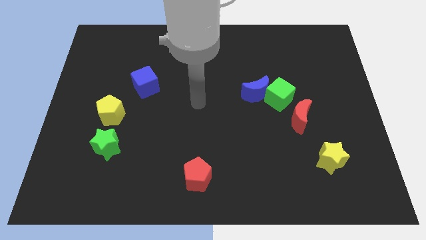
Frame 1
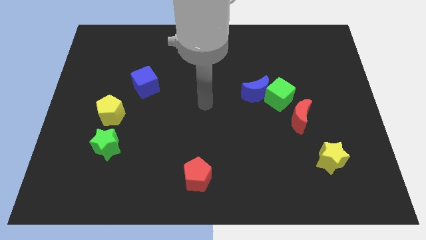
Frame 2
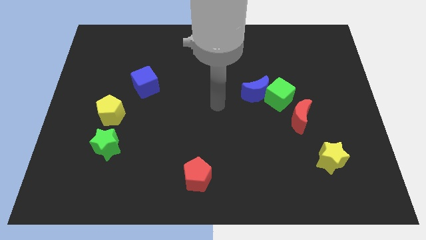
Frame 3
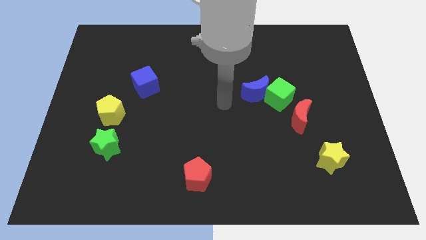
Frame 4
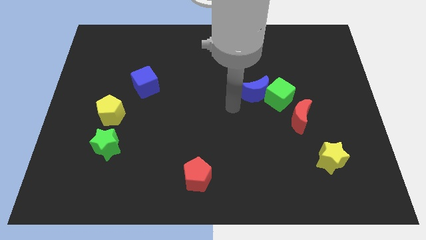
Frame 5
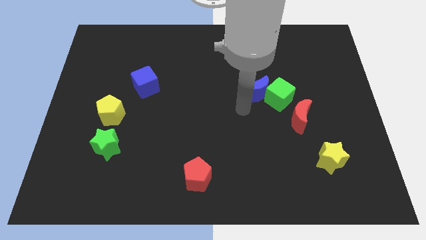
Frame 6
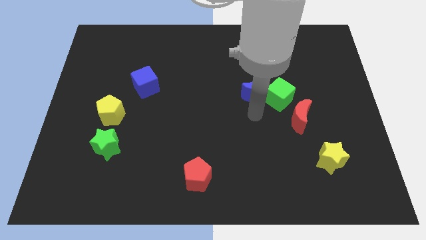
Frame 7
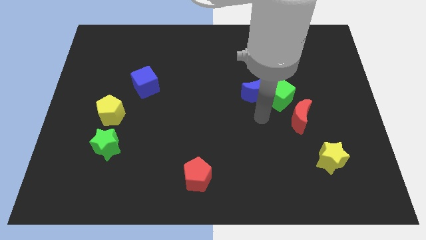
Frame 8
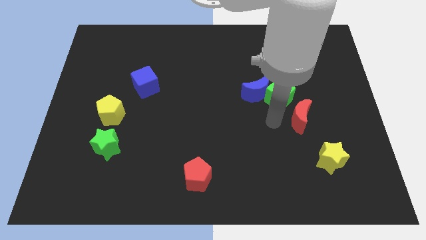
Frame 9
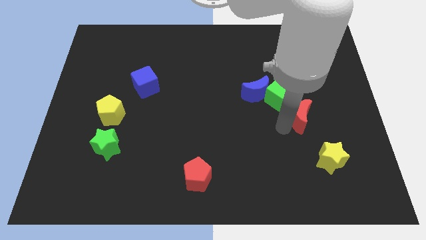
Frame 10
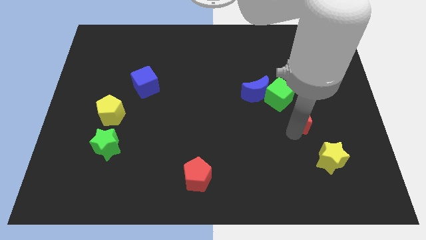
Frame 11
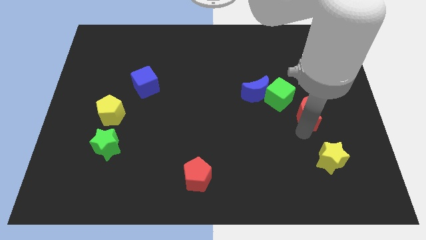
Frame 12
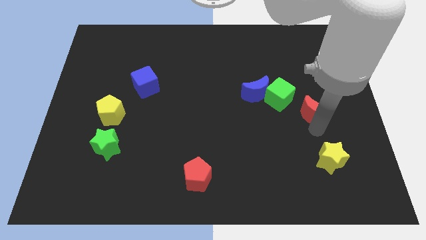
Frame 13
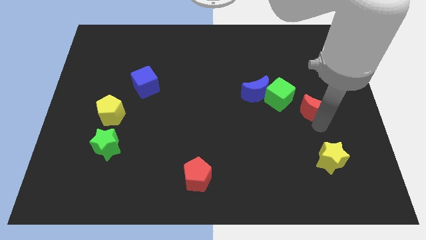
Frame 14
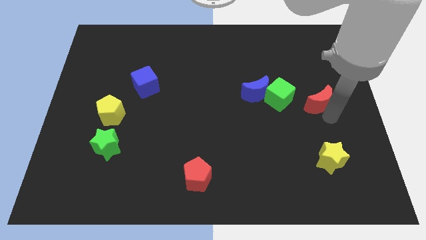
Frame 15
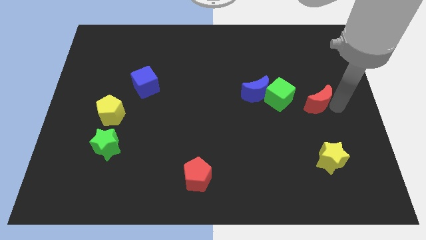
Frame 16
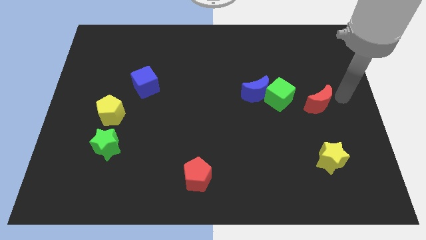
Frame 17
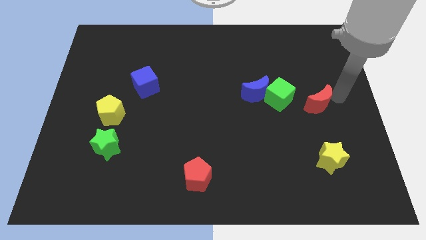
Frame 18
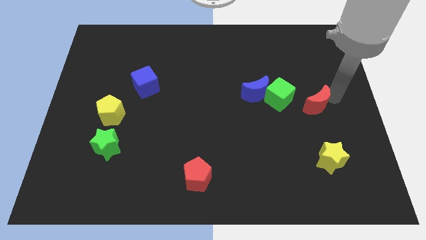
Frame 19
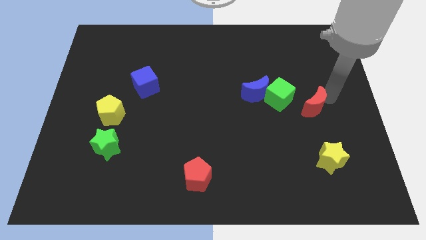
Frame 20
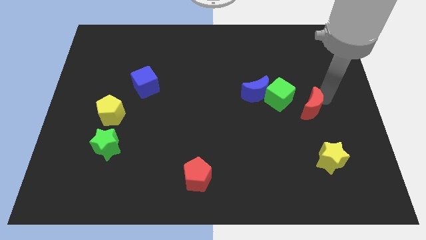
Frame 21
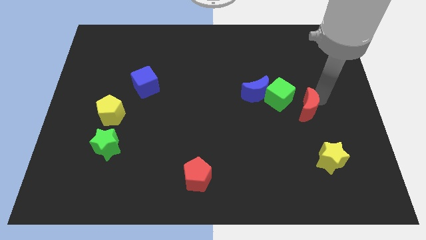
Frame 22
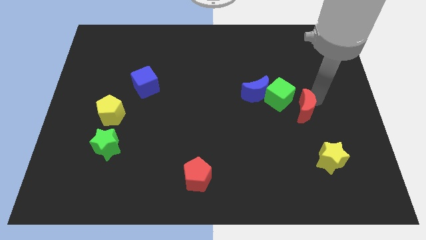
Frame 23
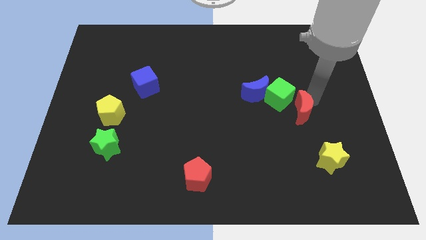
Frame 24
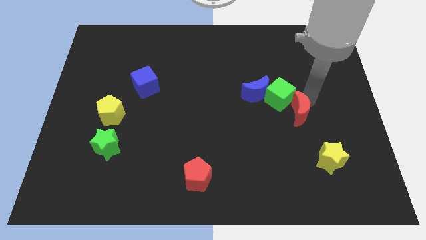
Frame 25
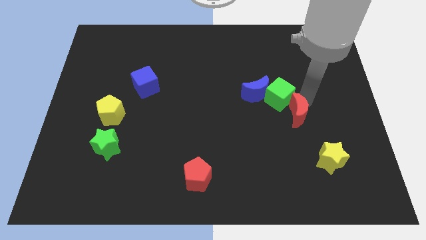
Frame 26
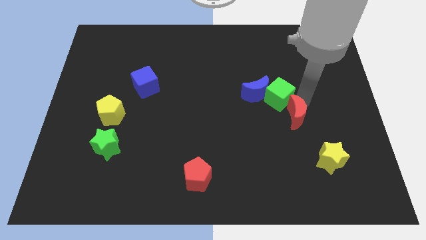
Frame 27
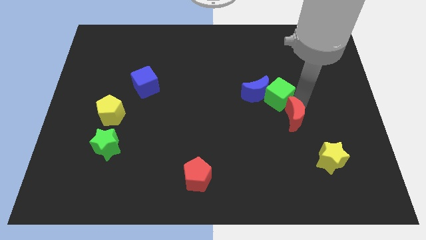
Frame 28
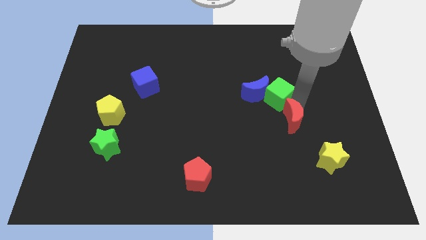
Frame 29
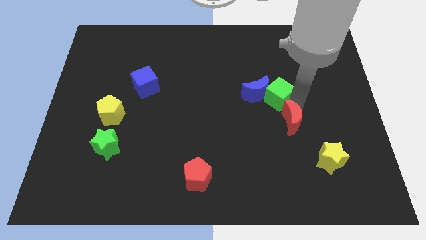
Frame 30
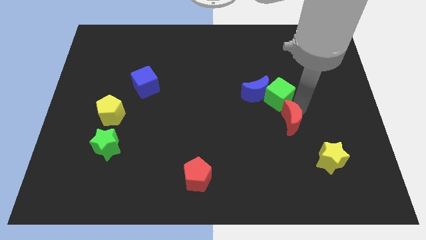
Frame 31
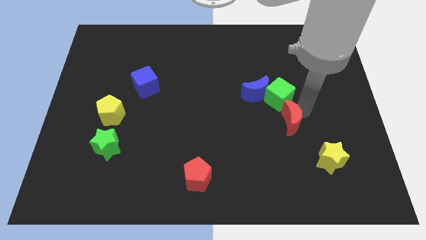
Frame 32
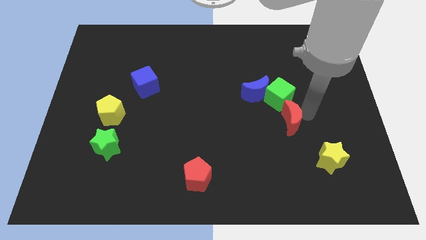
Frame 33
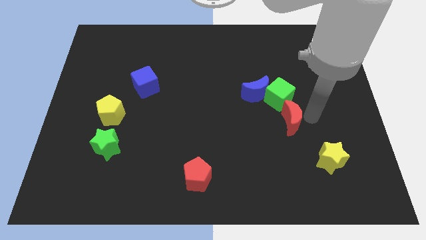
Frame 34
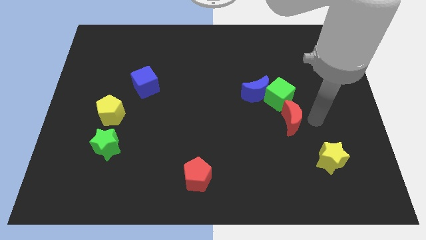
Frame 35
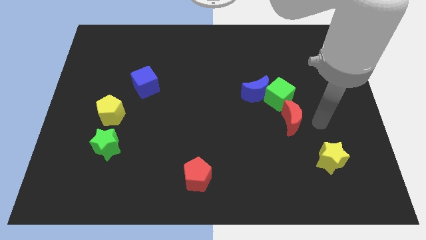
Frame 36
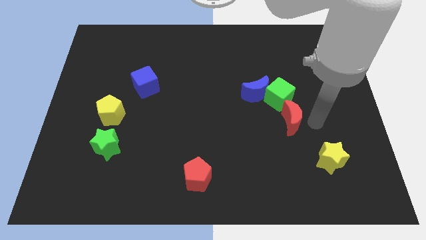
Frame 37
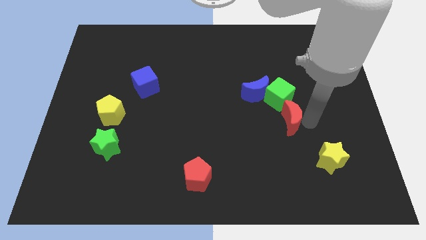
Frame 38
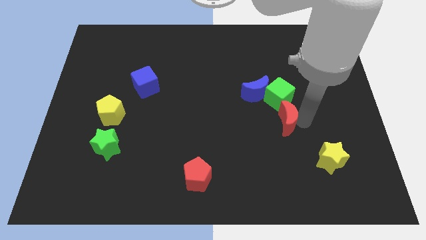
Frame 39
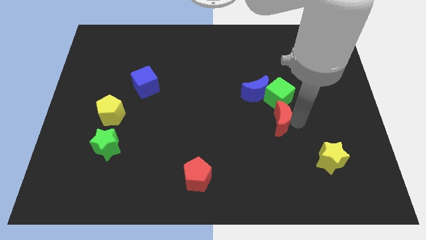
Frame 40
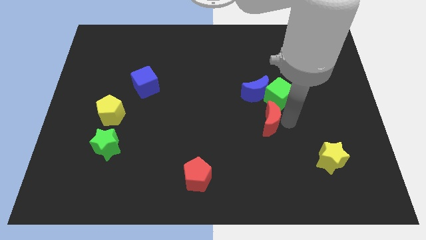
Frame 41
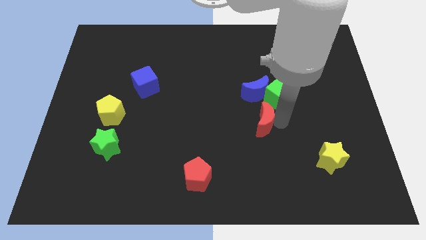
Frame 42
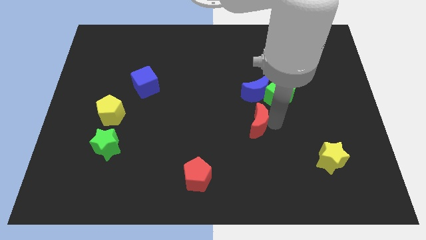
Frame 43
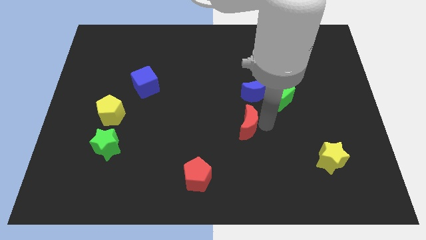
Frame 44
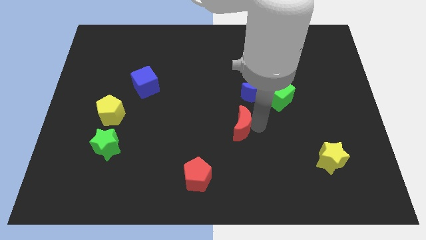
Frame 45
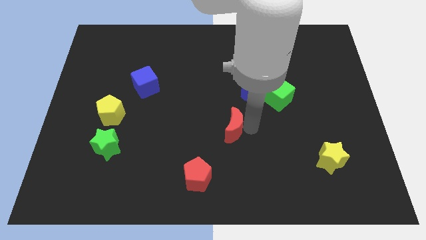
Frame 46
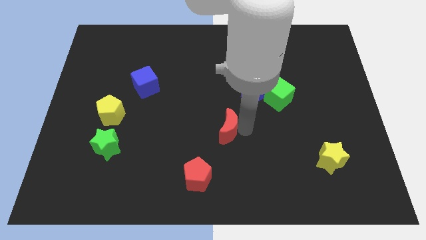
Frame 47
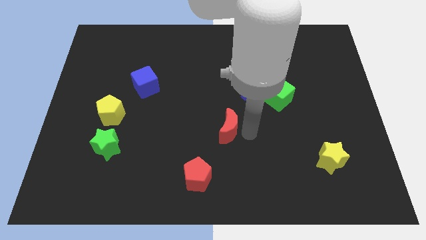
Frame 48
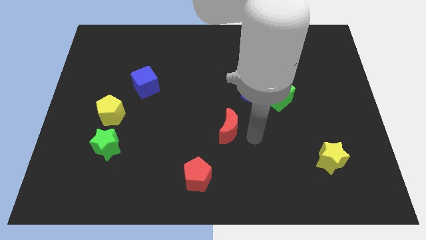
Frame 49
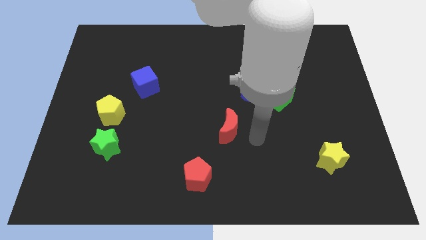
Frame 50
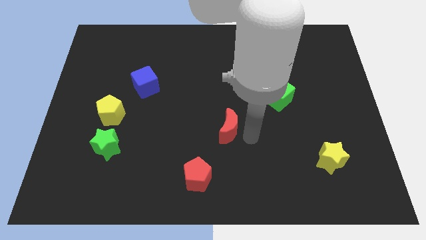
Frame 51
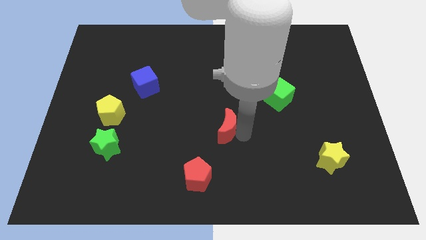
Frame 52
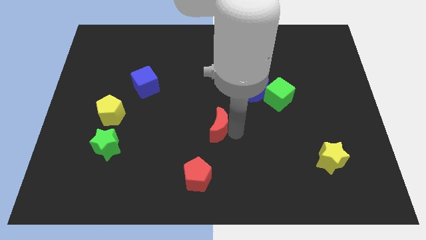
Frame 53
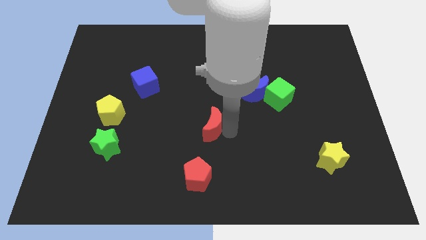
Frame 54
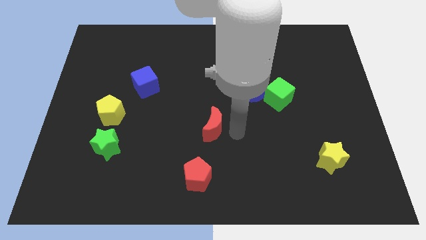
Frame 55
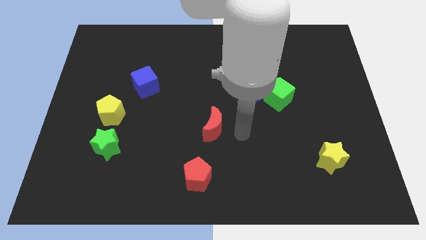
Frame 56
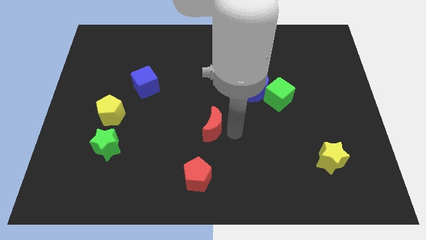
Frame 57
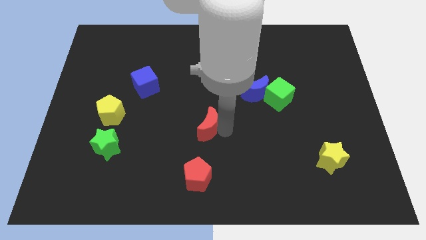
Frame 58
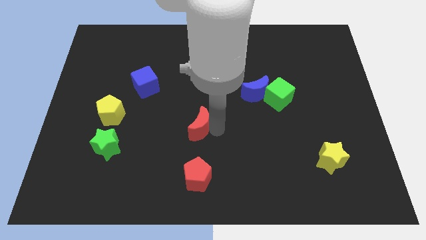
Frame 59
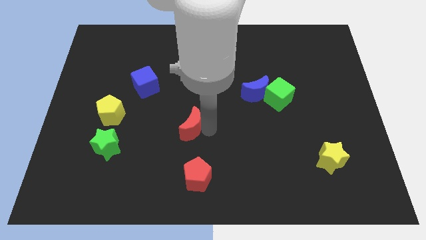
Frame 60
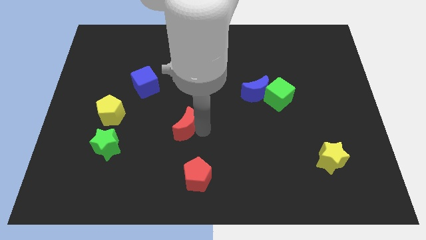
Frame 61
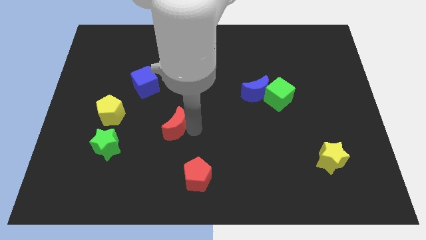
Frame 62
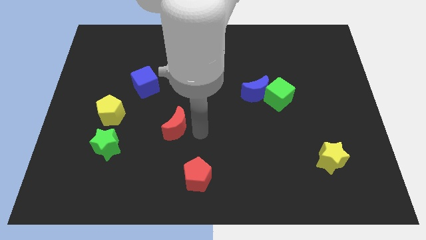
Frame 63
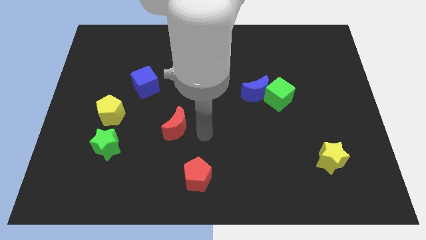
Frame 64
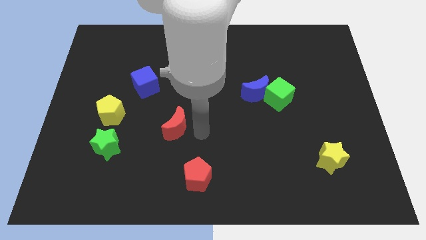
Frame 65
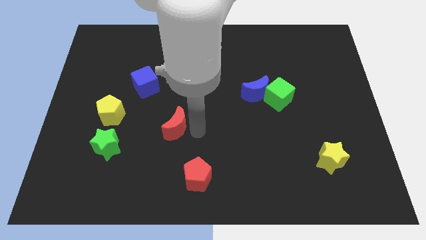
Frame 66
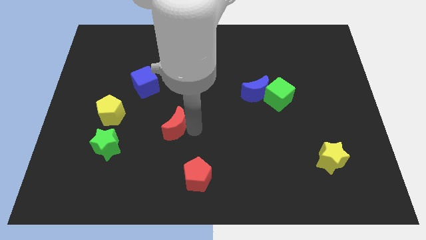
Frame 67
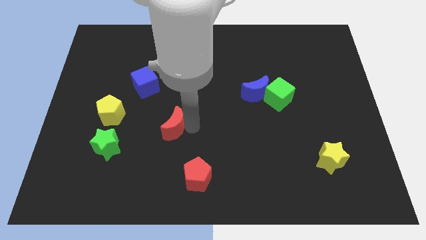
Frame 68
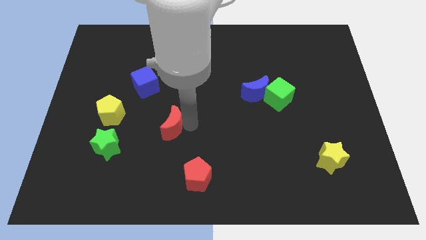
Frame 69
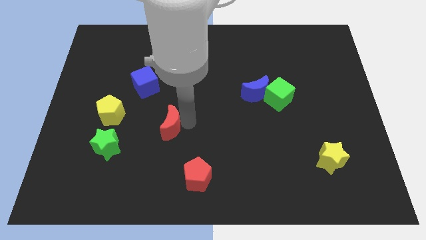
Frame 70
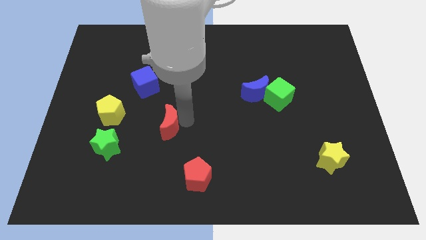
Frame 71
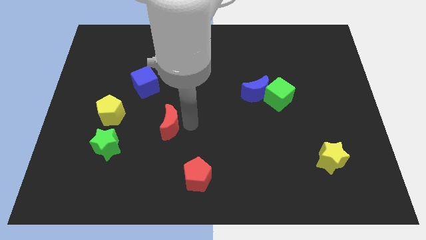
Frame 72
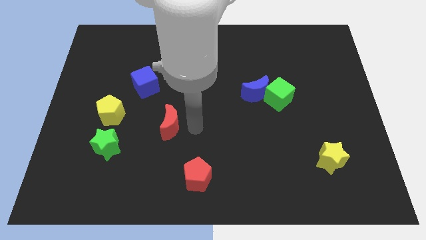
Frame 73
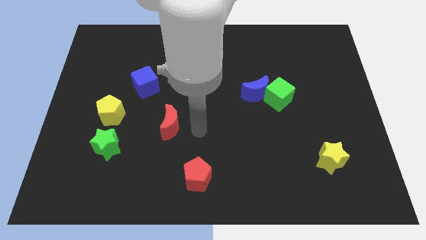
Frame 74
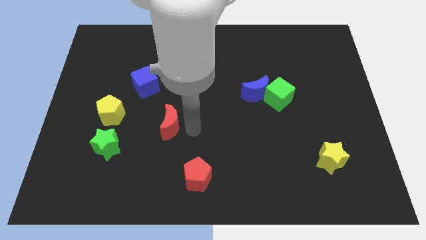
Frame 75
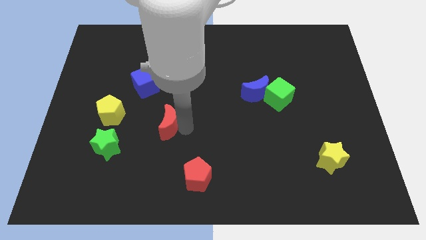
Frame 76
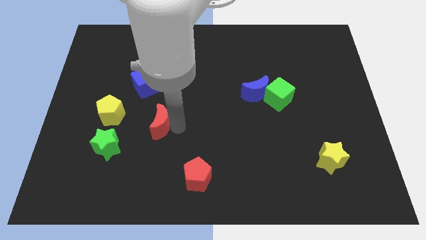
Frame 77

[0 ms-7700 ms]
push the red moon below the blue cube
